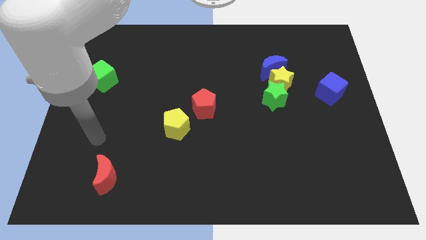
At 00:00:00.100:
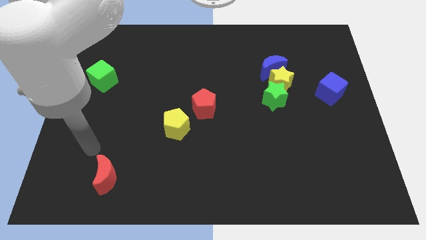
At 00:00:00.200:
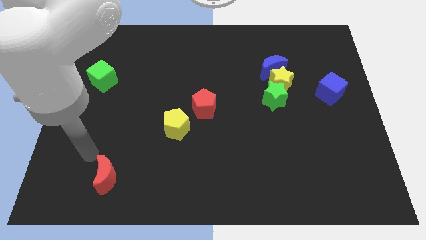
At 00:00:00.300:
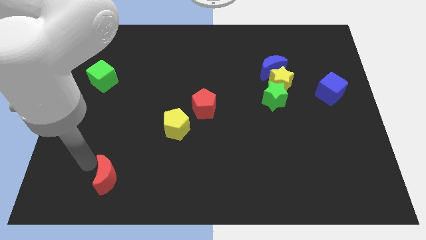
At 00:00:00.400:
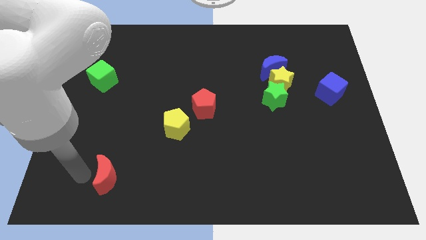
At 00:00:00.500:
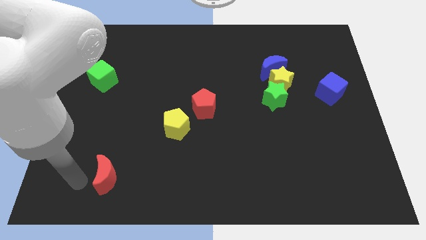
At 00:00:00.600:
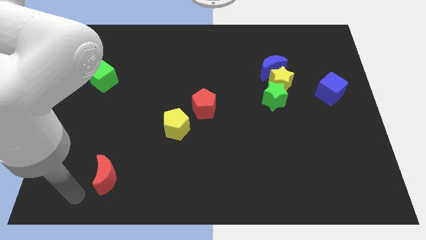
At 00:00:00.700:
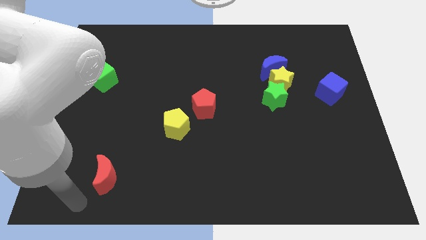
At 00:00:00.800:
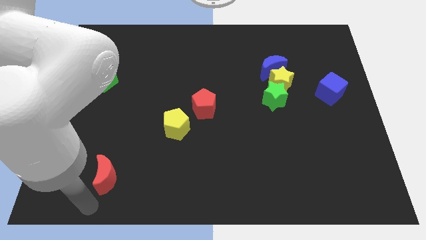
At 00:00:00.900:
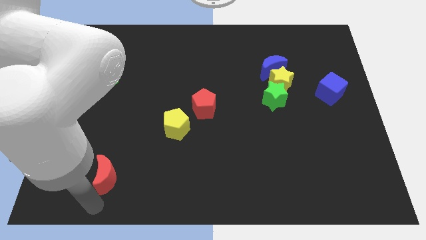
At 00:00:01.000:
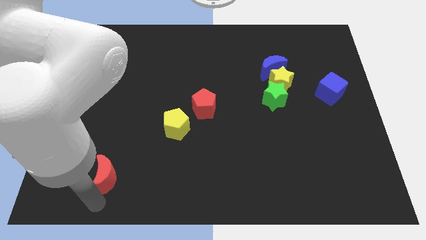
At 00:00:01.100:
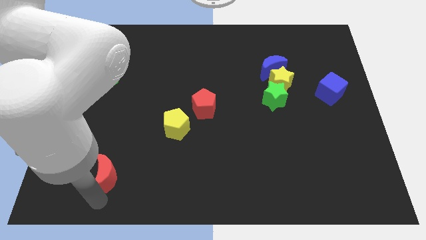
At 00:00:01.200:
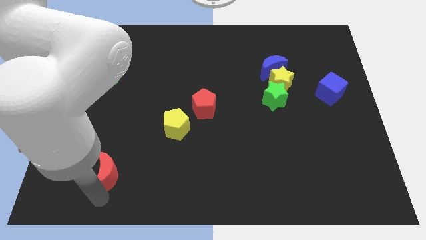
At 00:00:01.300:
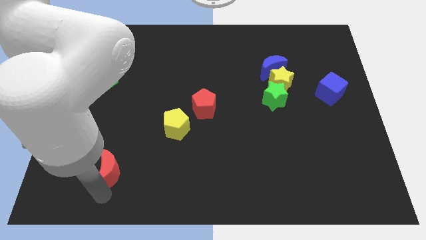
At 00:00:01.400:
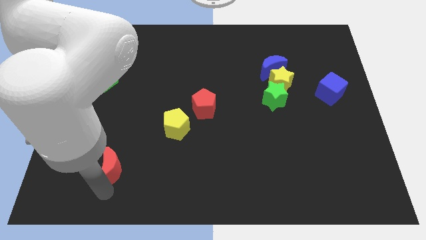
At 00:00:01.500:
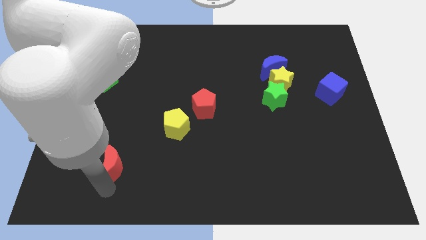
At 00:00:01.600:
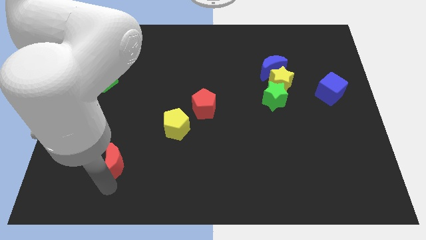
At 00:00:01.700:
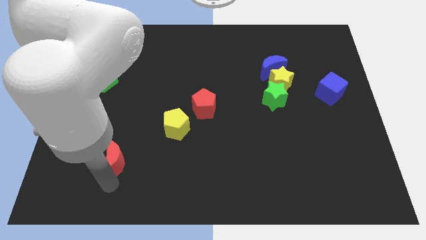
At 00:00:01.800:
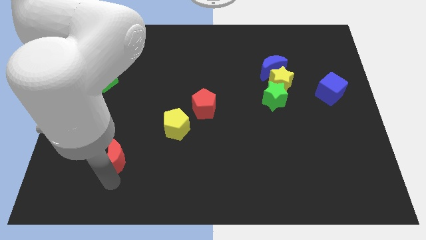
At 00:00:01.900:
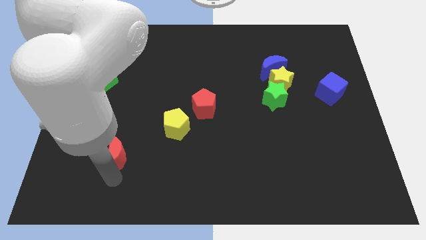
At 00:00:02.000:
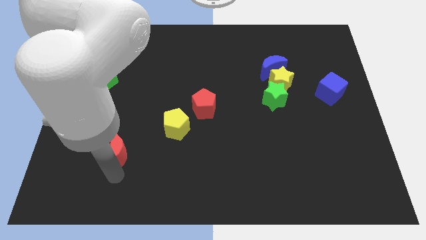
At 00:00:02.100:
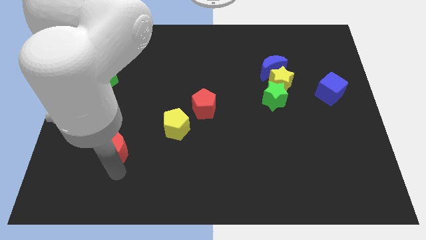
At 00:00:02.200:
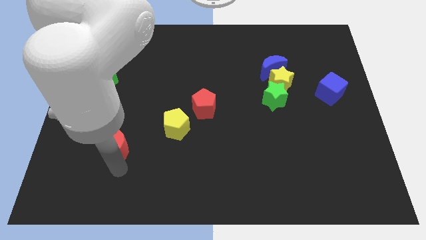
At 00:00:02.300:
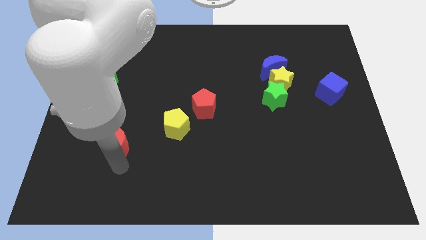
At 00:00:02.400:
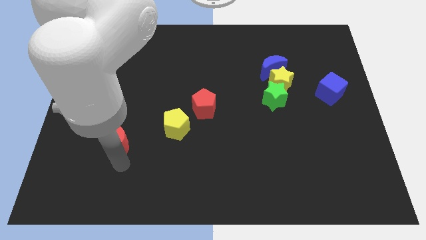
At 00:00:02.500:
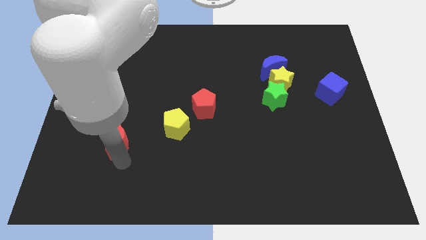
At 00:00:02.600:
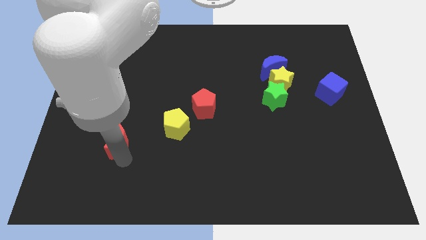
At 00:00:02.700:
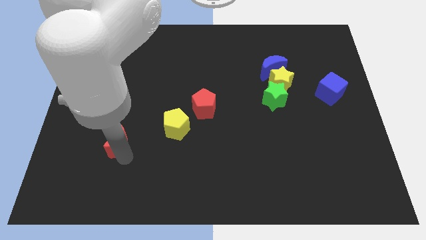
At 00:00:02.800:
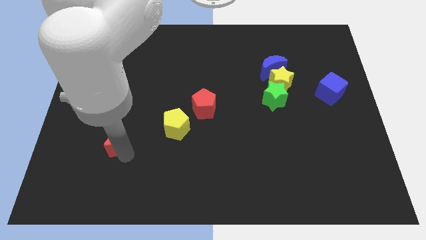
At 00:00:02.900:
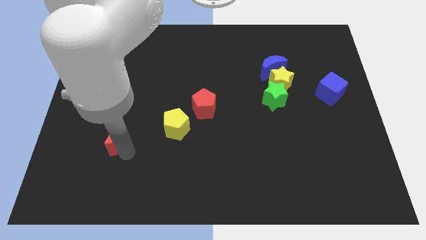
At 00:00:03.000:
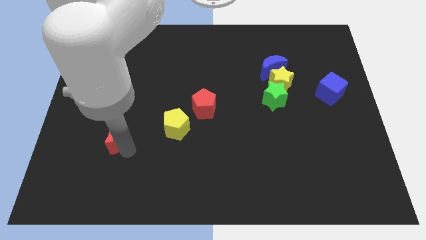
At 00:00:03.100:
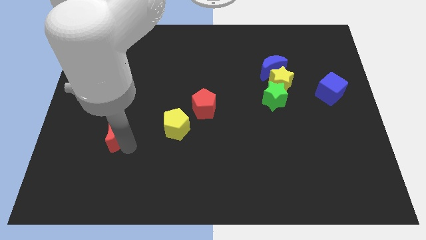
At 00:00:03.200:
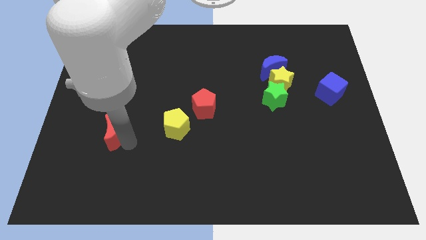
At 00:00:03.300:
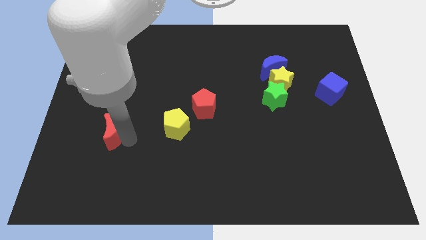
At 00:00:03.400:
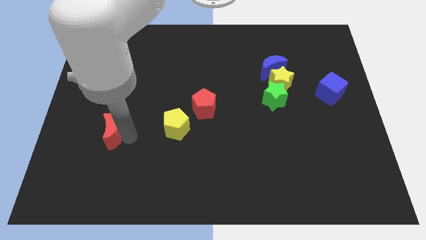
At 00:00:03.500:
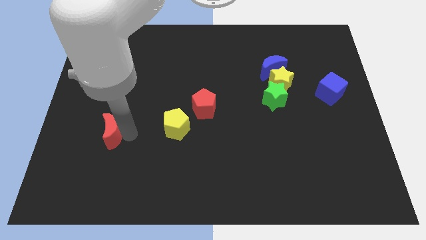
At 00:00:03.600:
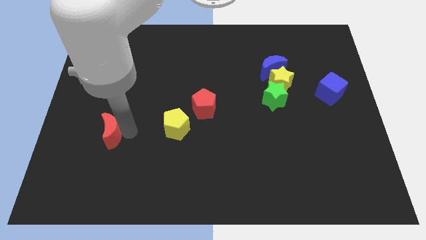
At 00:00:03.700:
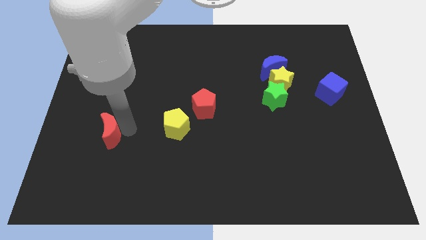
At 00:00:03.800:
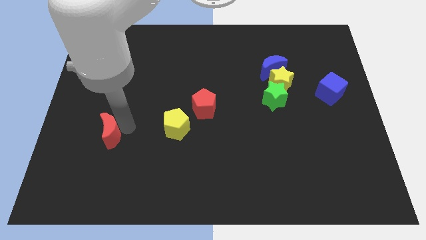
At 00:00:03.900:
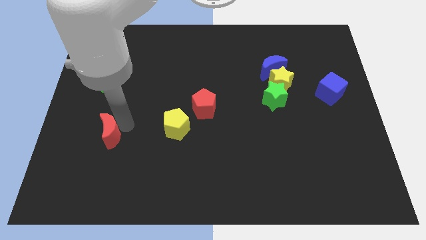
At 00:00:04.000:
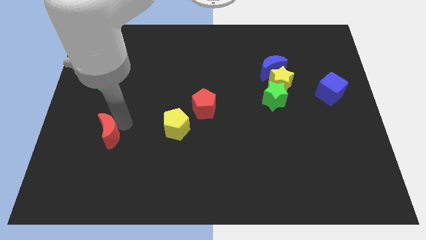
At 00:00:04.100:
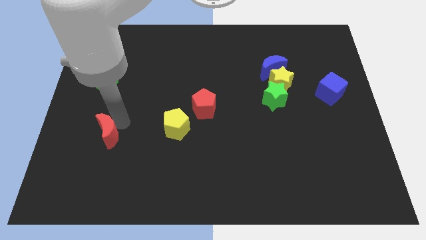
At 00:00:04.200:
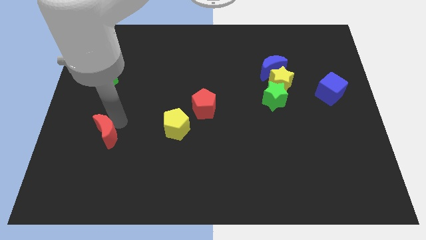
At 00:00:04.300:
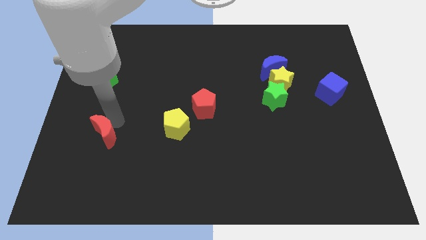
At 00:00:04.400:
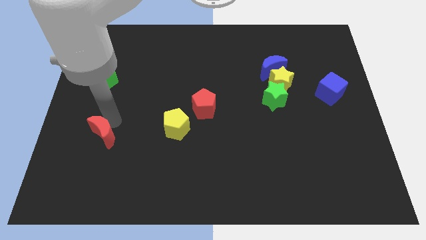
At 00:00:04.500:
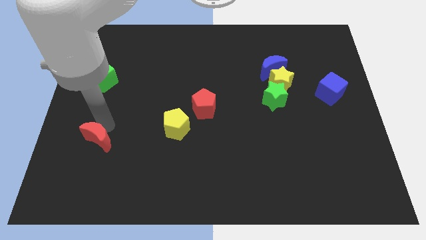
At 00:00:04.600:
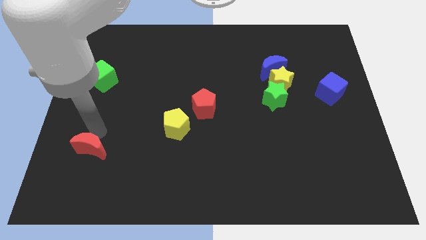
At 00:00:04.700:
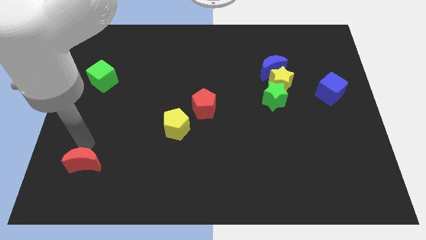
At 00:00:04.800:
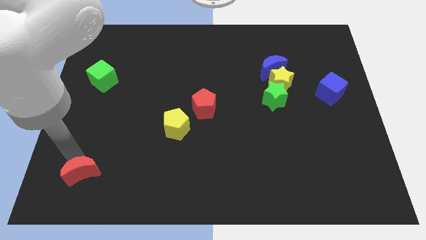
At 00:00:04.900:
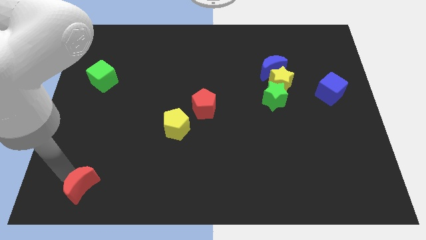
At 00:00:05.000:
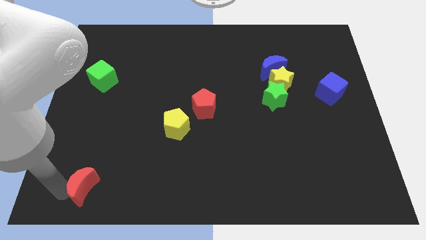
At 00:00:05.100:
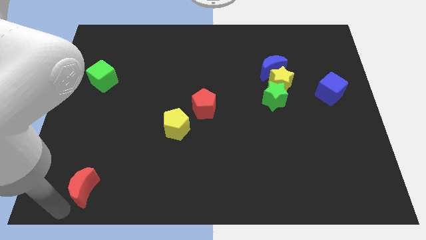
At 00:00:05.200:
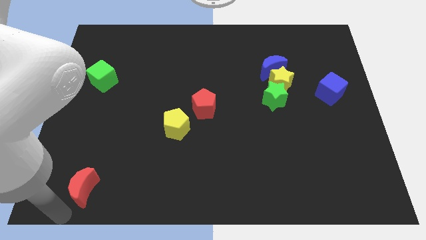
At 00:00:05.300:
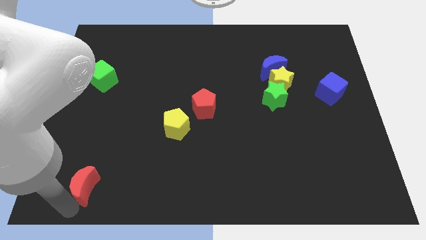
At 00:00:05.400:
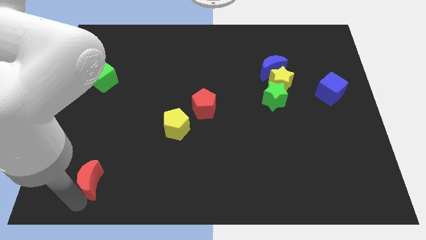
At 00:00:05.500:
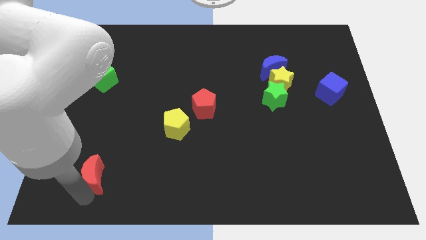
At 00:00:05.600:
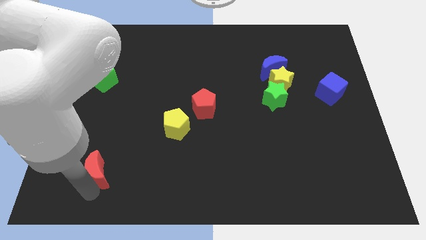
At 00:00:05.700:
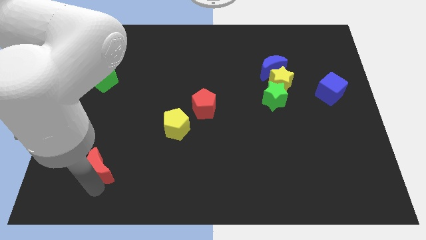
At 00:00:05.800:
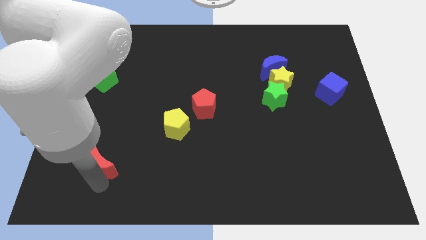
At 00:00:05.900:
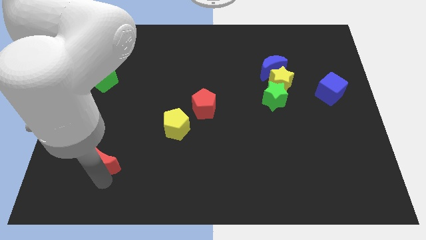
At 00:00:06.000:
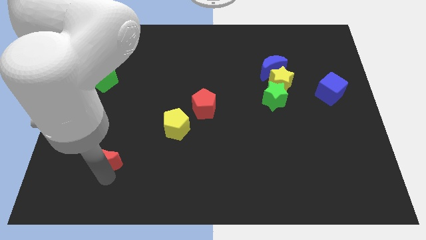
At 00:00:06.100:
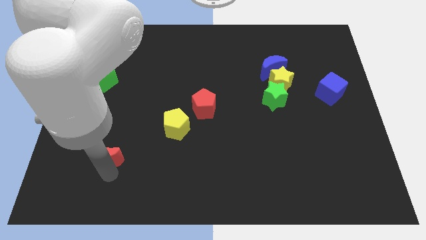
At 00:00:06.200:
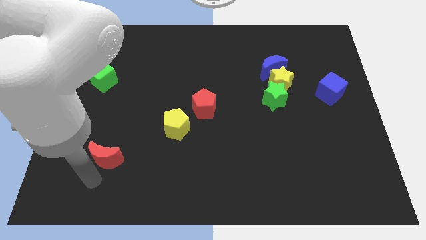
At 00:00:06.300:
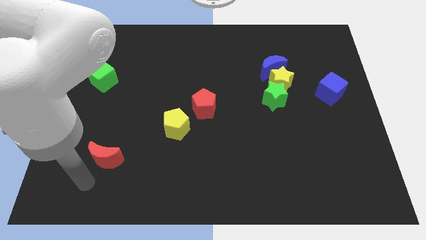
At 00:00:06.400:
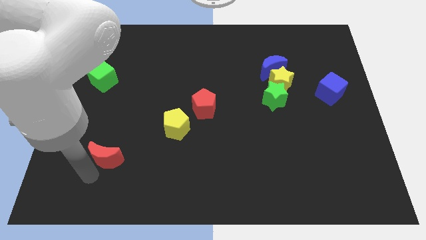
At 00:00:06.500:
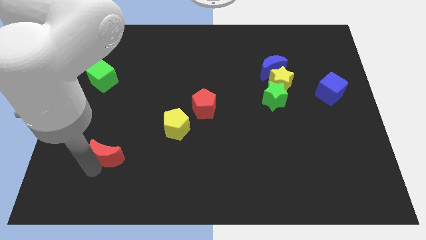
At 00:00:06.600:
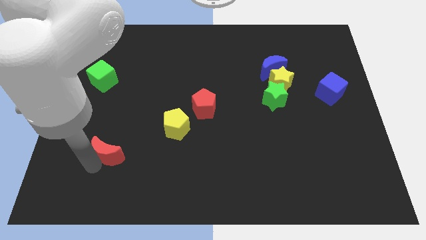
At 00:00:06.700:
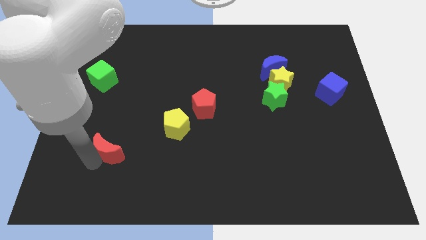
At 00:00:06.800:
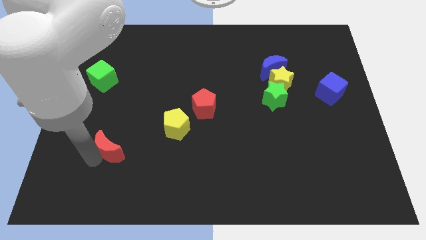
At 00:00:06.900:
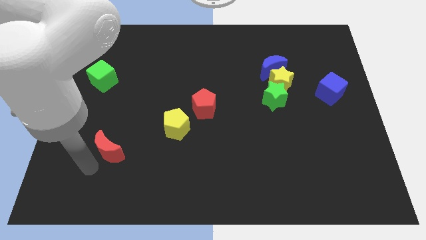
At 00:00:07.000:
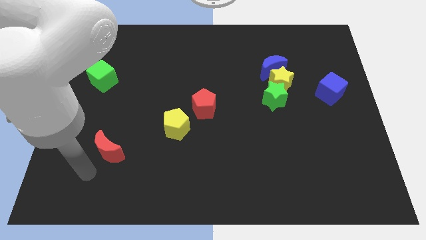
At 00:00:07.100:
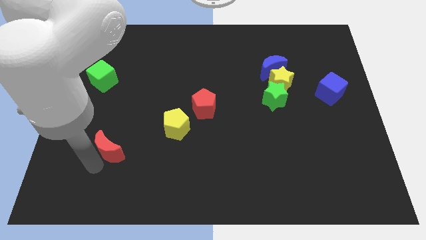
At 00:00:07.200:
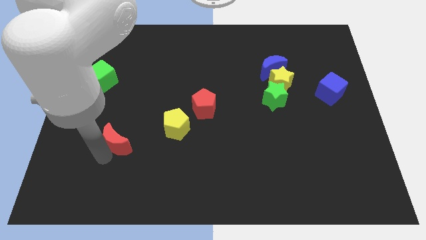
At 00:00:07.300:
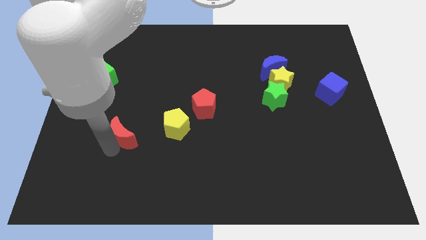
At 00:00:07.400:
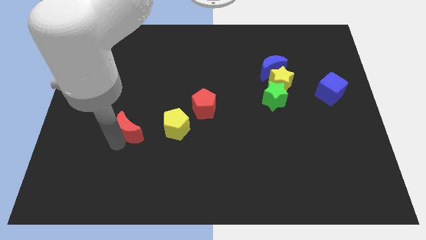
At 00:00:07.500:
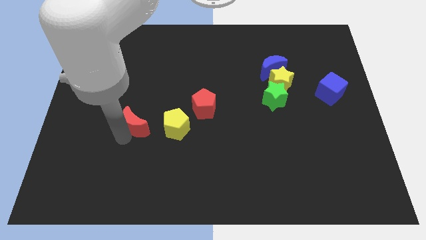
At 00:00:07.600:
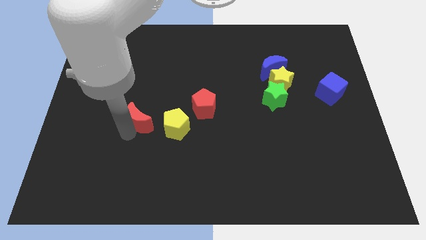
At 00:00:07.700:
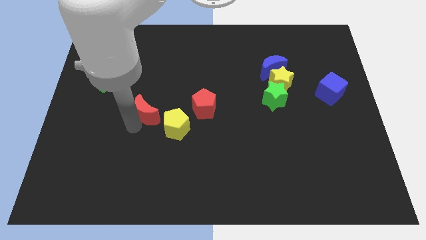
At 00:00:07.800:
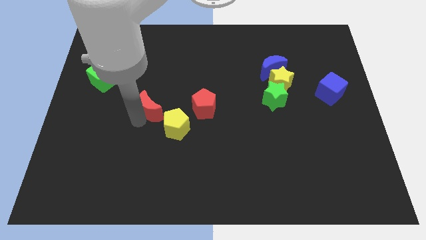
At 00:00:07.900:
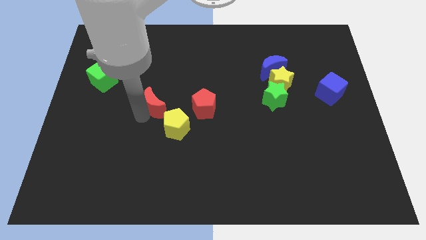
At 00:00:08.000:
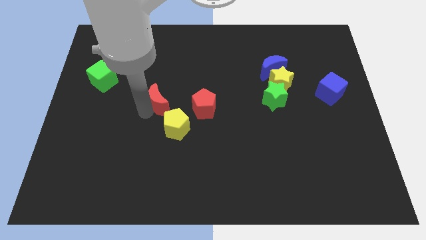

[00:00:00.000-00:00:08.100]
put the red moon to the top of the yellow pentagon
